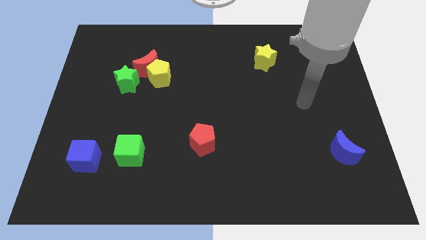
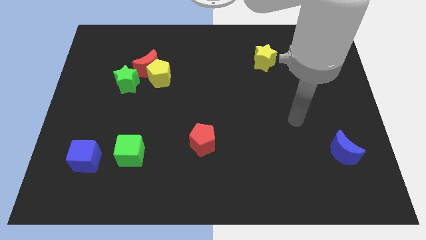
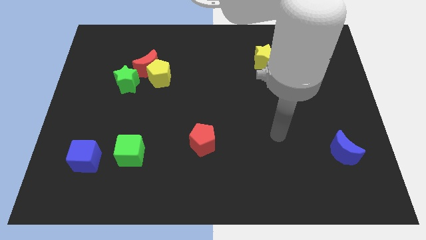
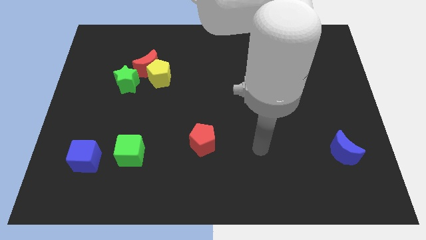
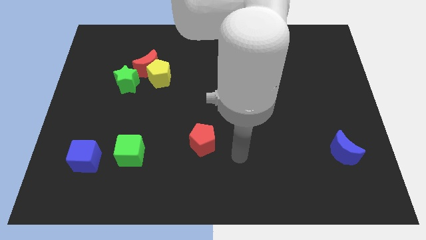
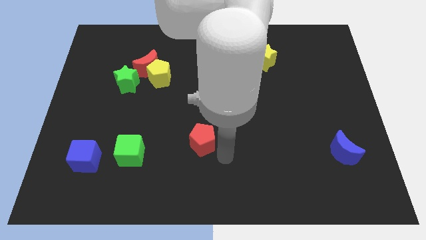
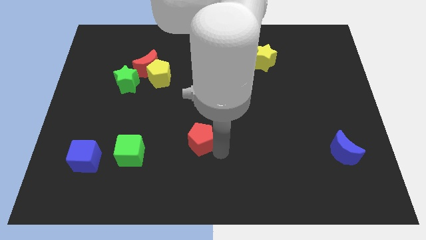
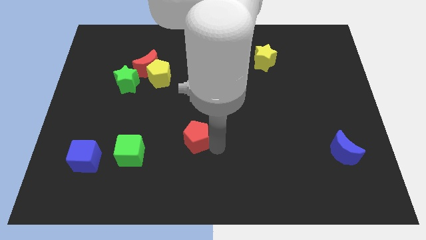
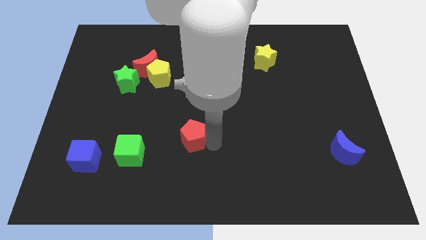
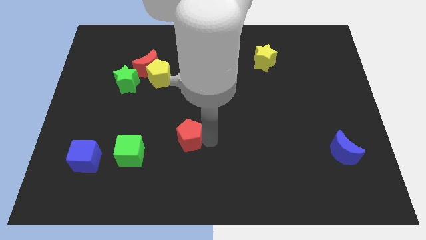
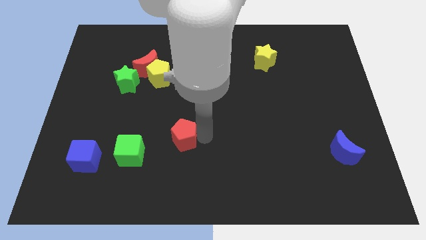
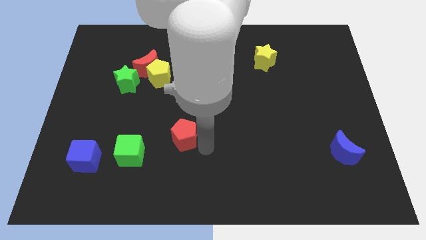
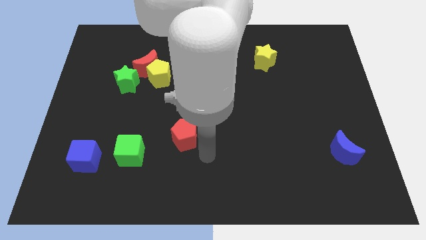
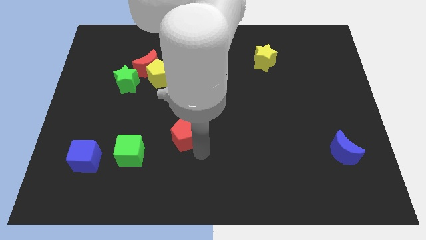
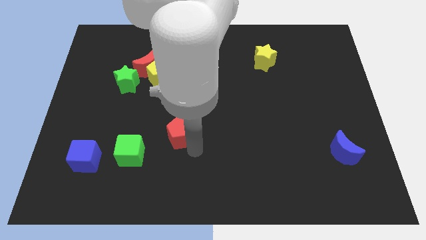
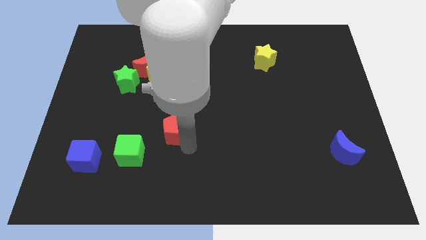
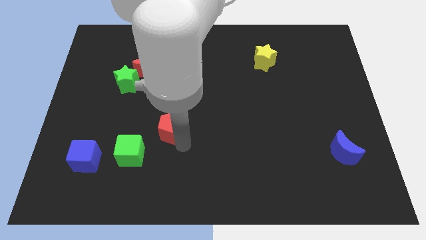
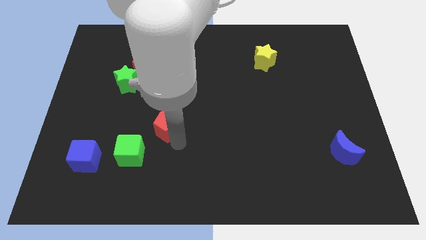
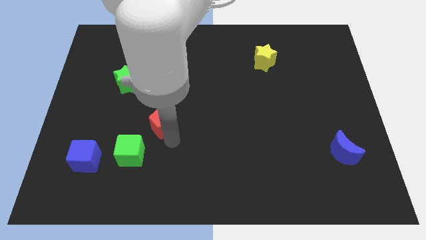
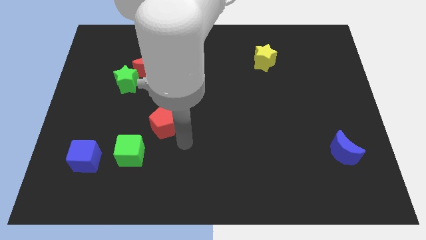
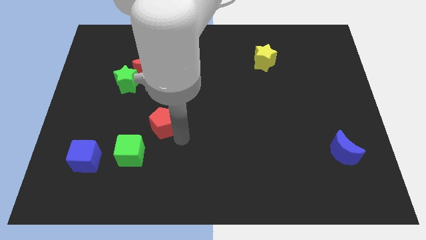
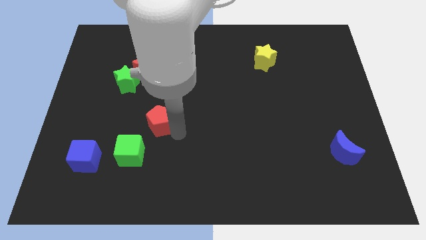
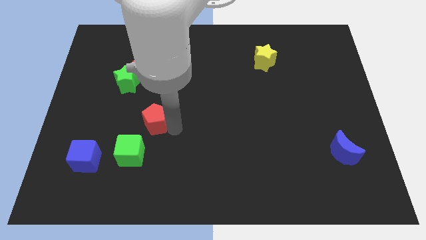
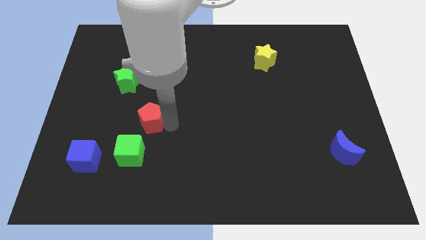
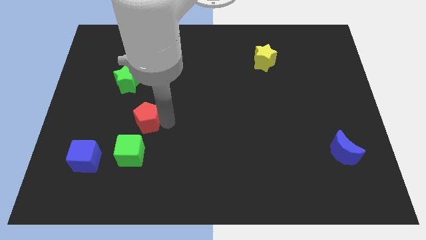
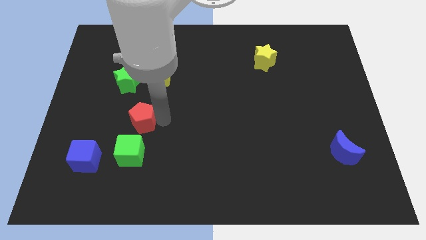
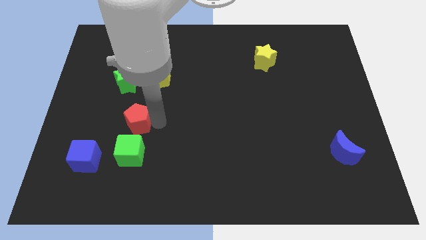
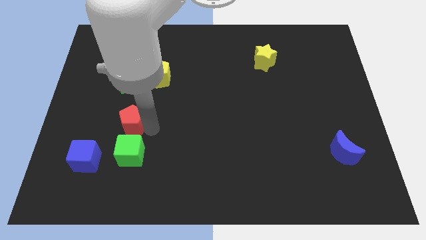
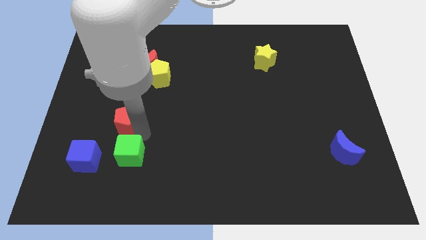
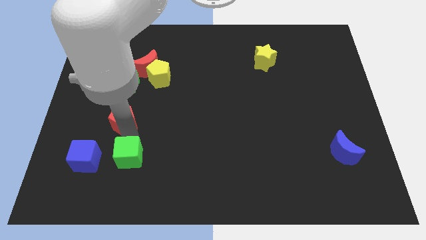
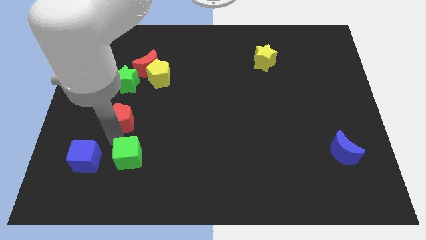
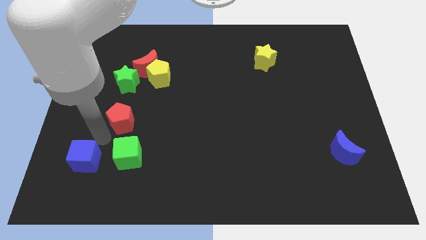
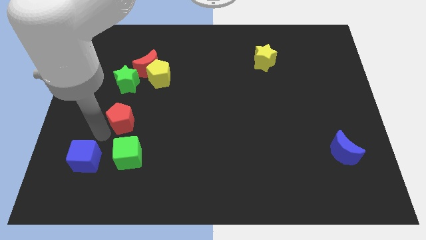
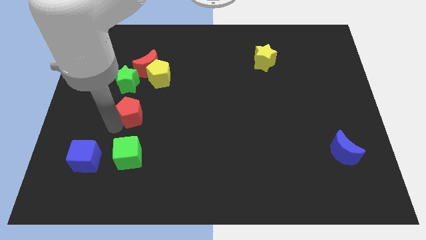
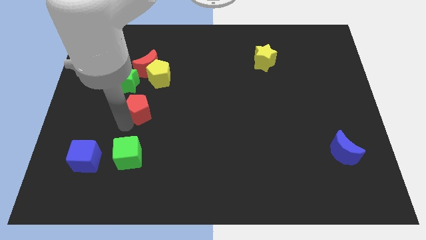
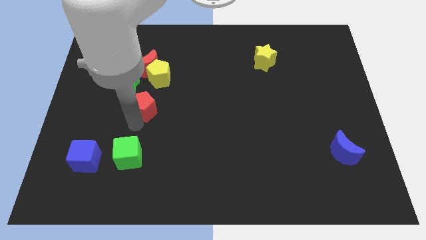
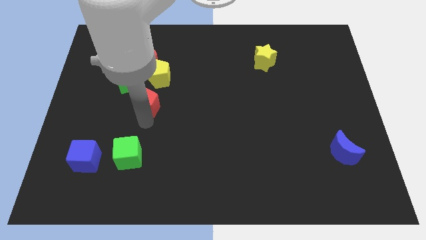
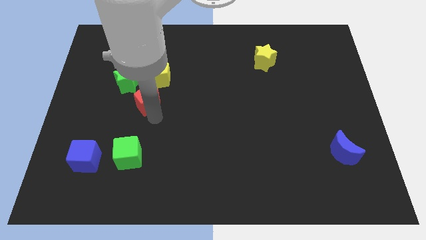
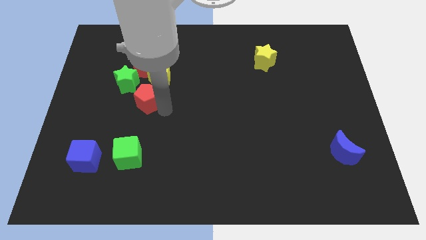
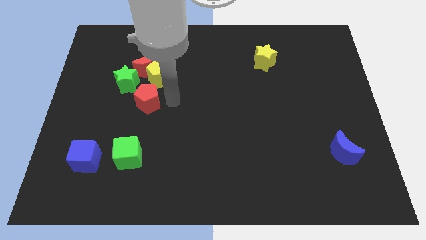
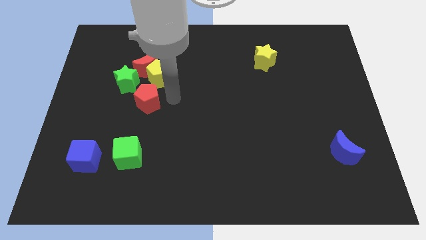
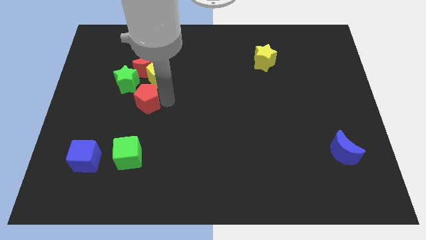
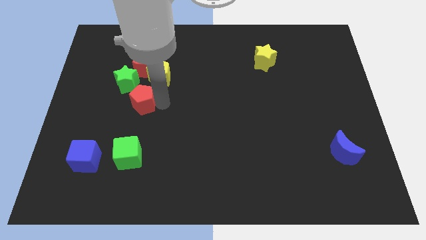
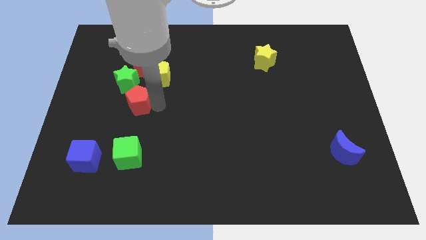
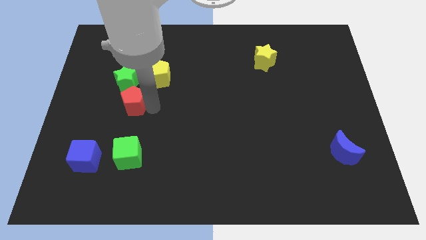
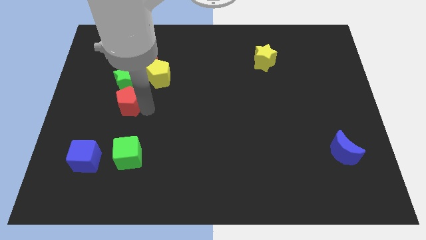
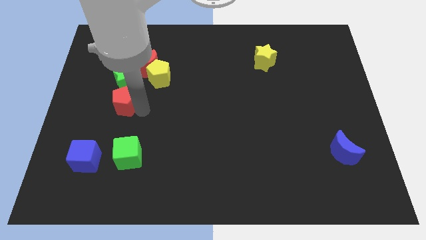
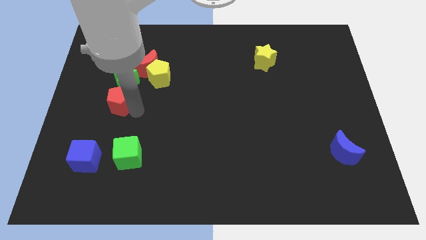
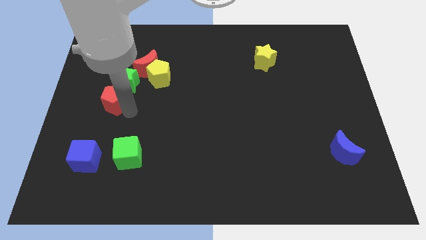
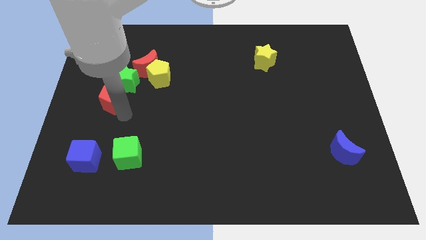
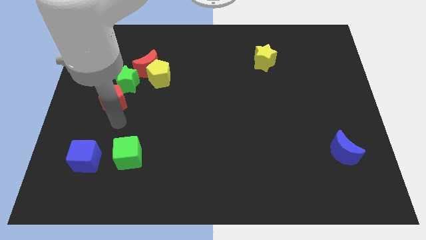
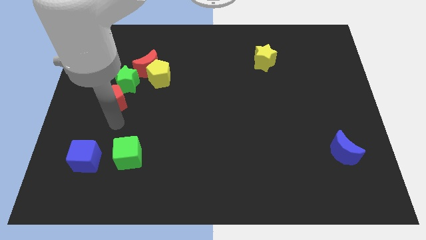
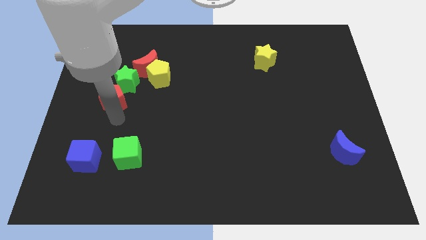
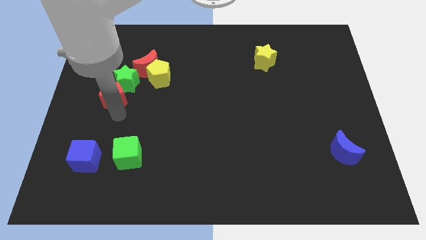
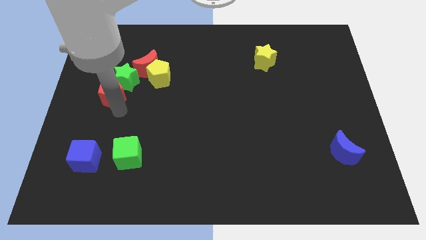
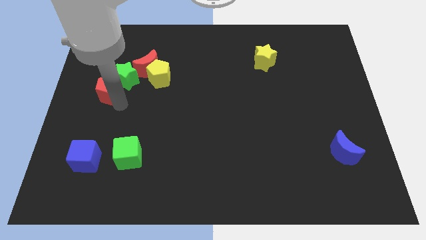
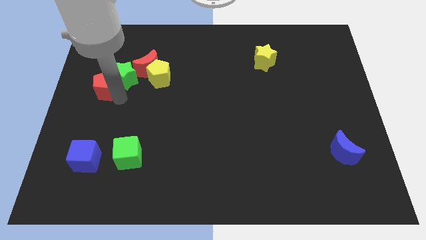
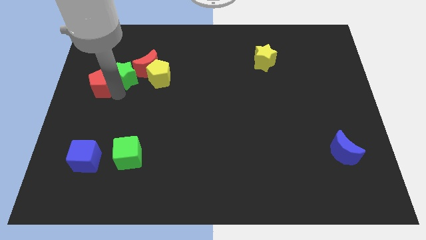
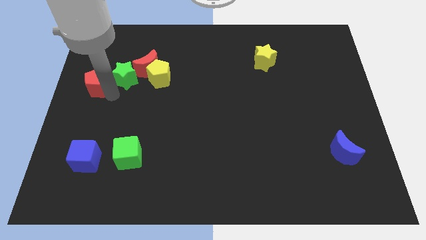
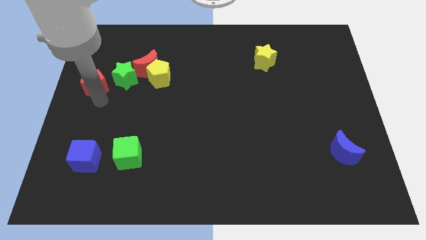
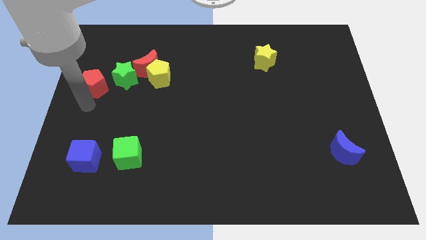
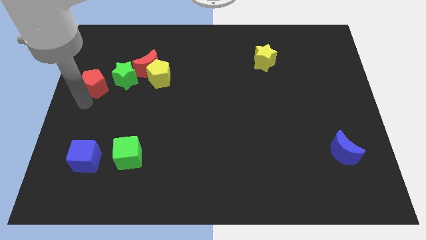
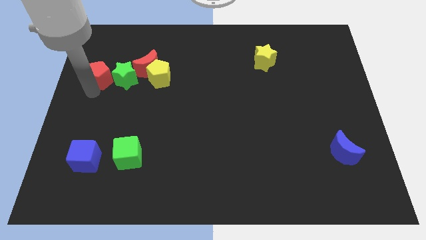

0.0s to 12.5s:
push the red pentagon left of the red moon

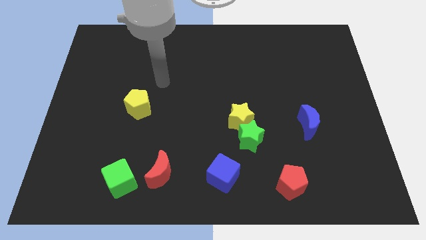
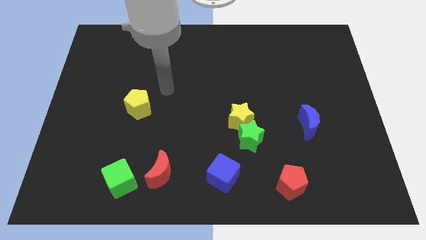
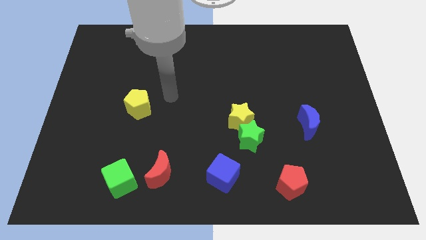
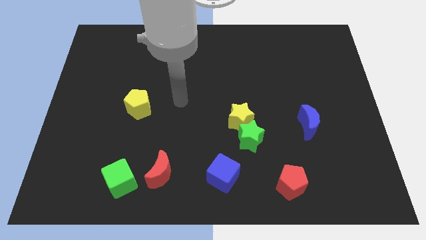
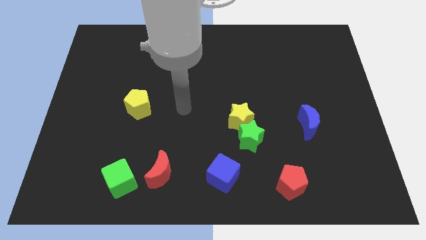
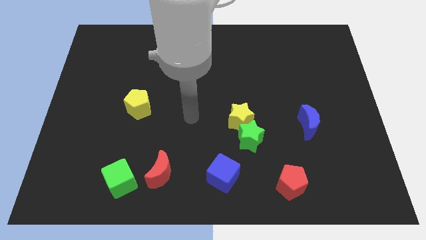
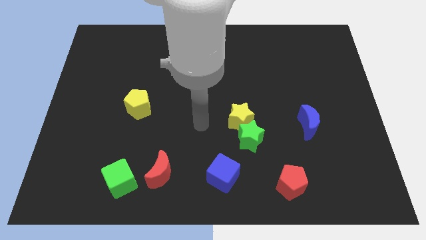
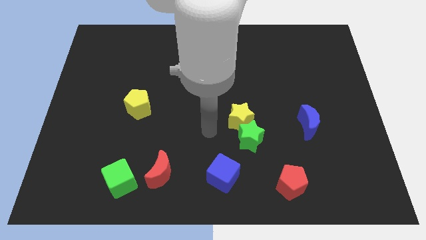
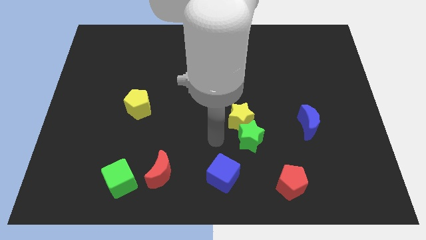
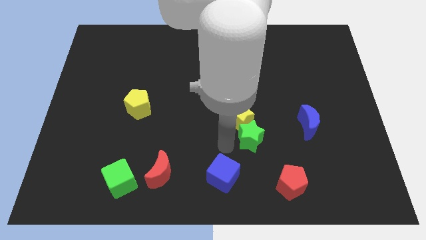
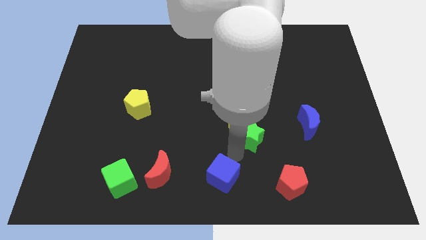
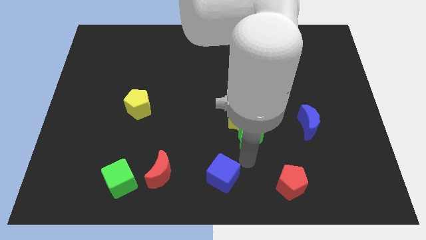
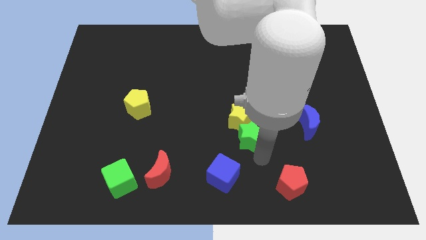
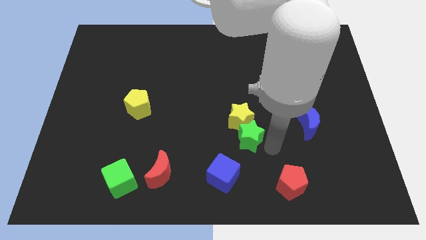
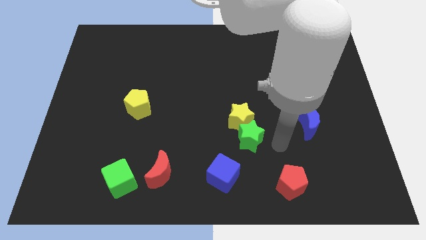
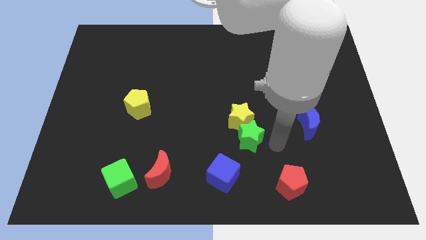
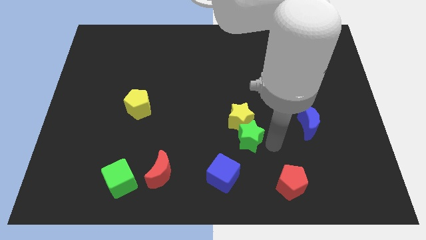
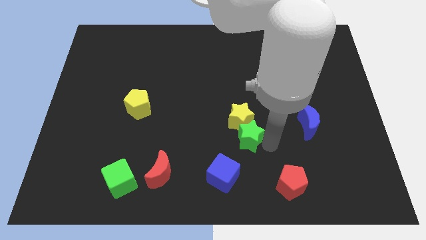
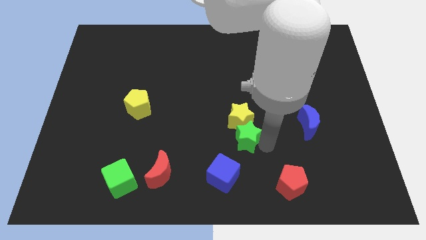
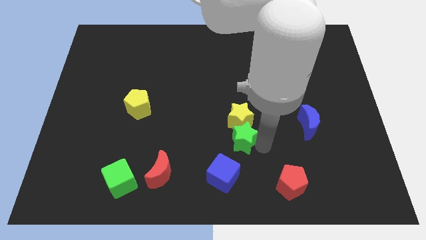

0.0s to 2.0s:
push the green star to the top side of the blue cube
